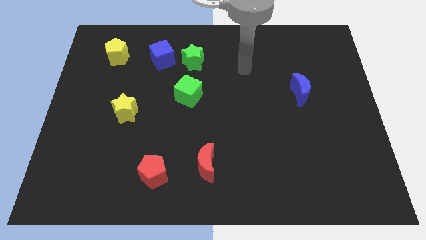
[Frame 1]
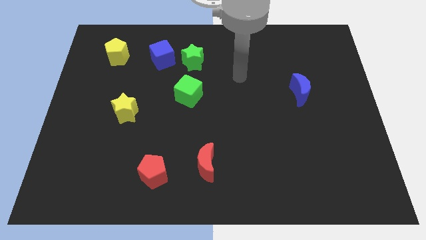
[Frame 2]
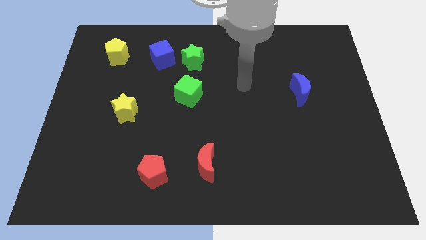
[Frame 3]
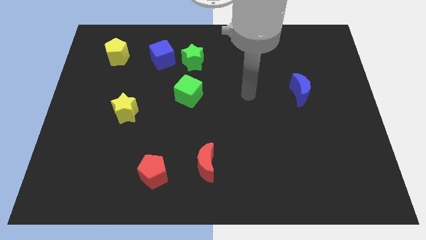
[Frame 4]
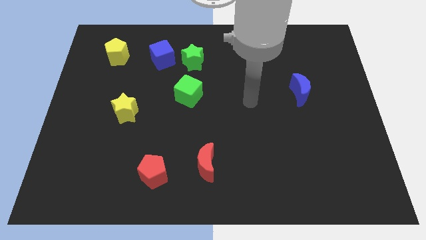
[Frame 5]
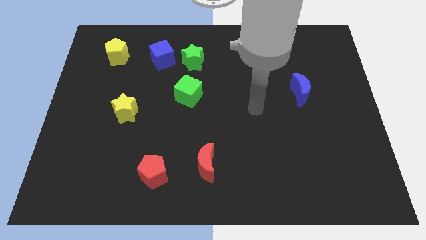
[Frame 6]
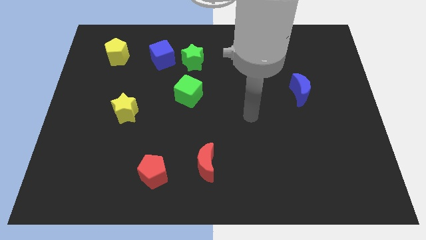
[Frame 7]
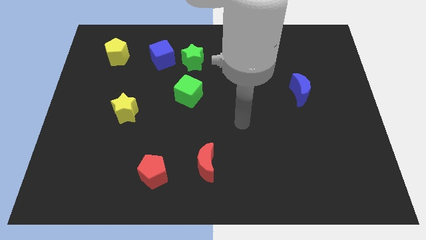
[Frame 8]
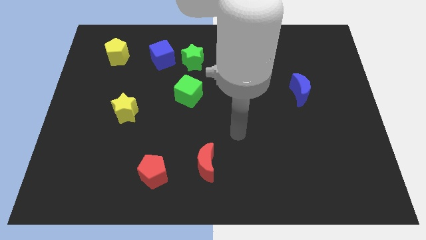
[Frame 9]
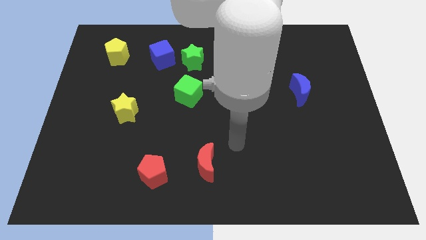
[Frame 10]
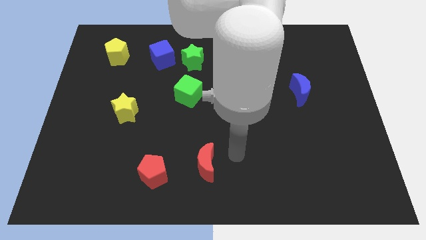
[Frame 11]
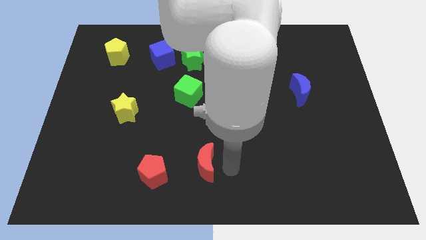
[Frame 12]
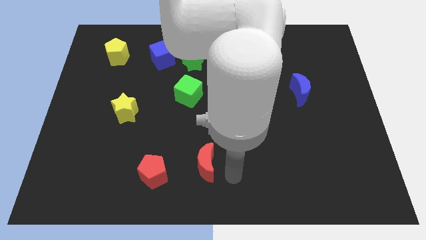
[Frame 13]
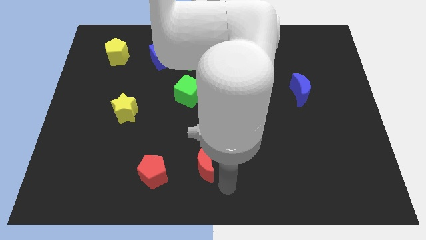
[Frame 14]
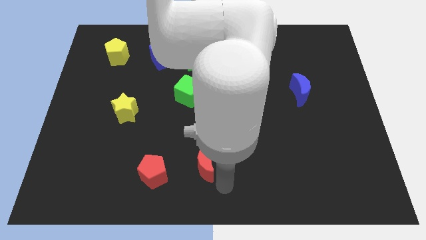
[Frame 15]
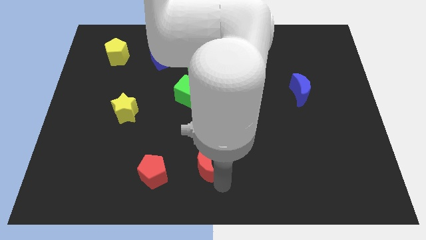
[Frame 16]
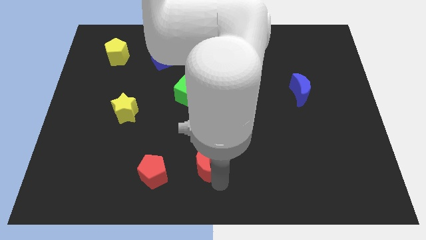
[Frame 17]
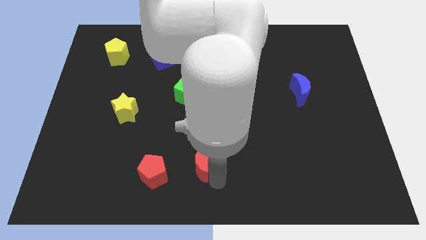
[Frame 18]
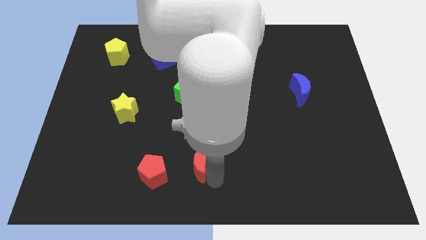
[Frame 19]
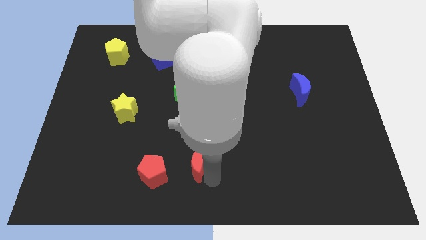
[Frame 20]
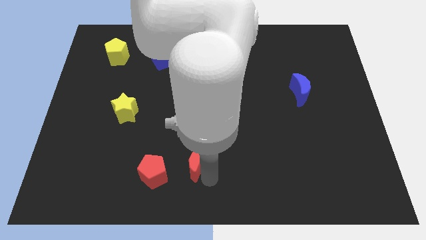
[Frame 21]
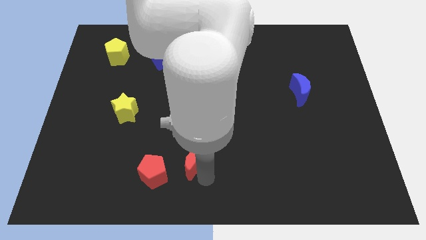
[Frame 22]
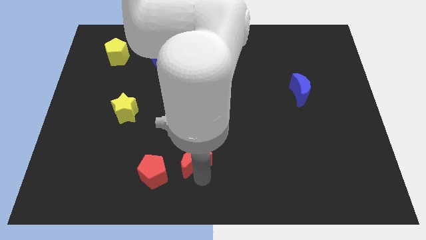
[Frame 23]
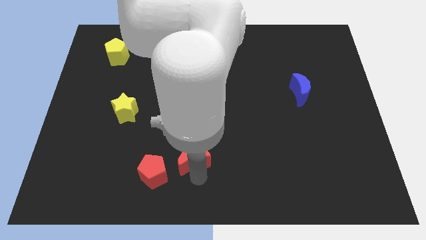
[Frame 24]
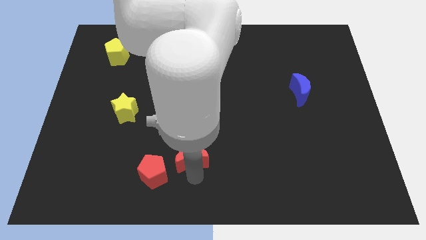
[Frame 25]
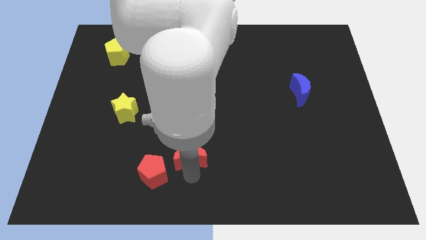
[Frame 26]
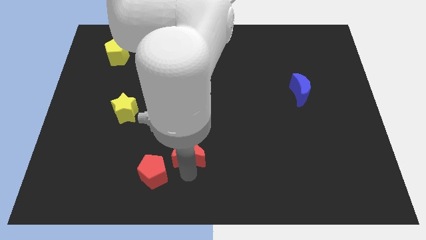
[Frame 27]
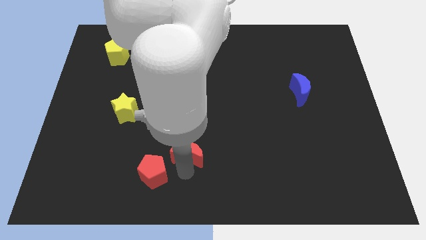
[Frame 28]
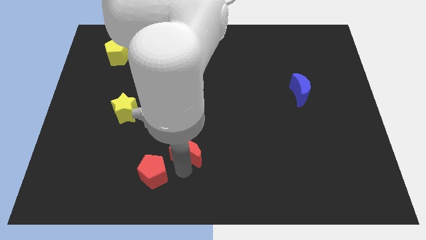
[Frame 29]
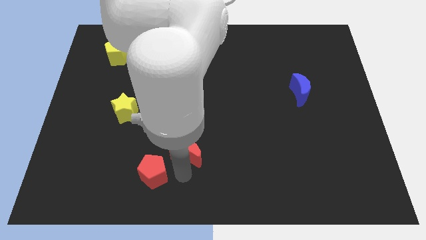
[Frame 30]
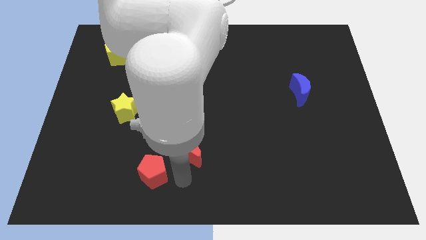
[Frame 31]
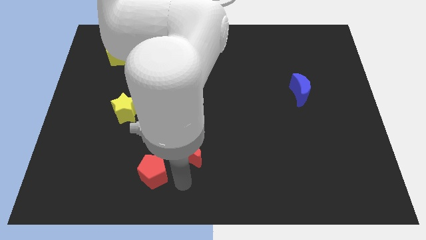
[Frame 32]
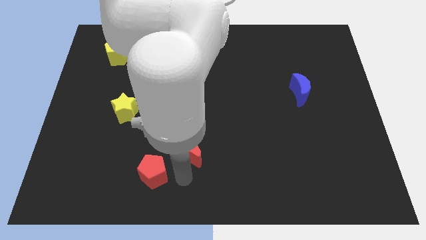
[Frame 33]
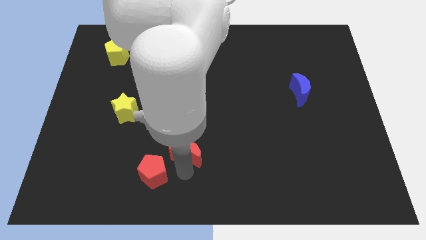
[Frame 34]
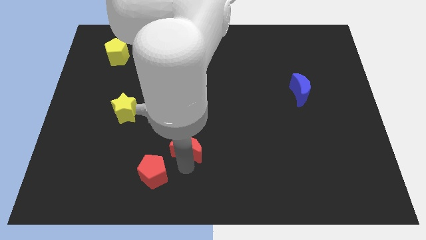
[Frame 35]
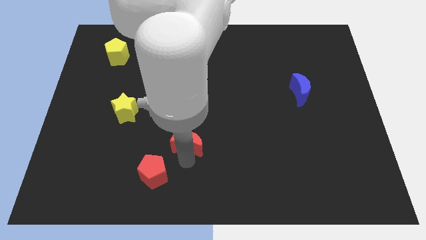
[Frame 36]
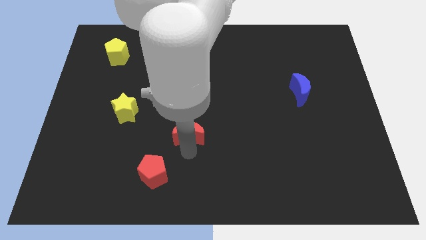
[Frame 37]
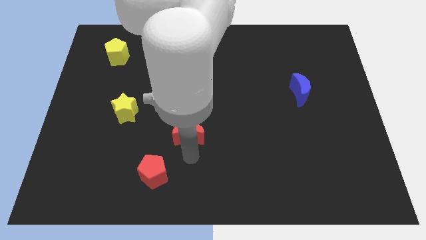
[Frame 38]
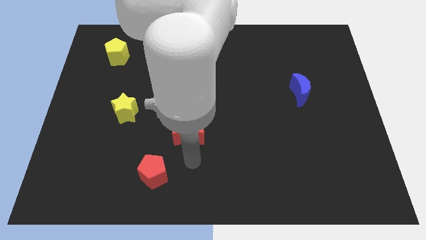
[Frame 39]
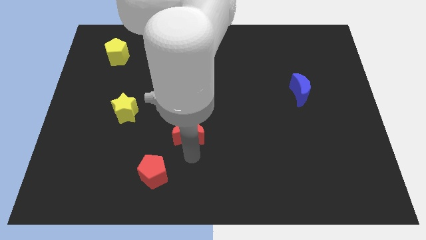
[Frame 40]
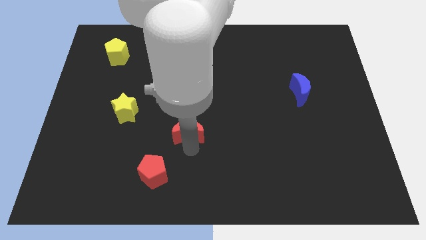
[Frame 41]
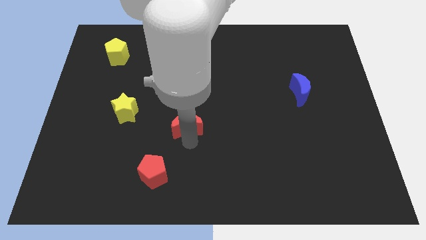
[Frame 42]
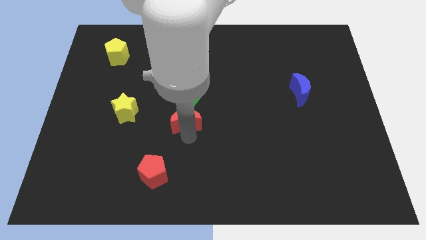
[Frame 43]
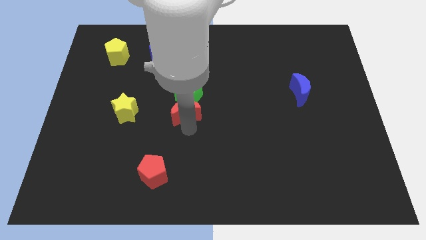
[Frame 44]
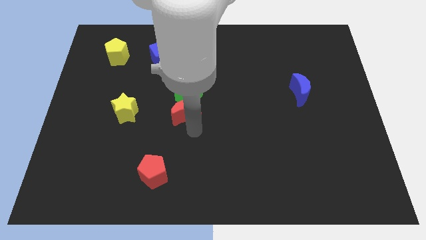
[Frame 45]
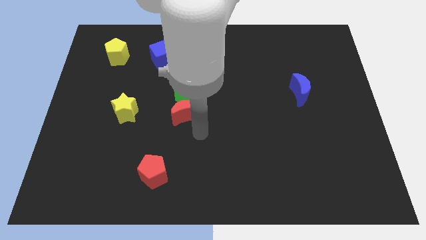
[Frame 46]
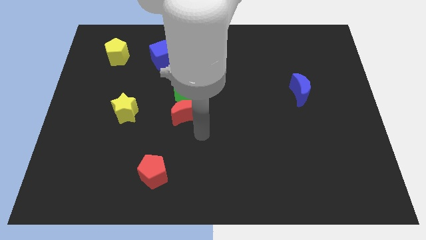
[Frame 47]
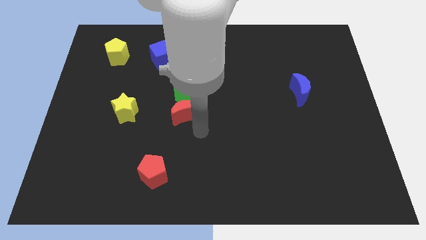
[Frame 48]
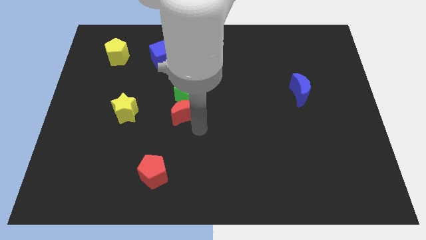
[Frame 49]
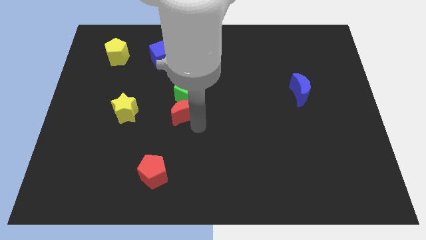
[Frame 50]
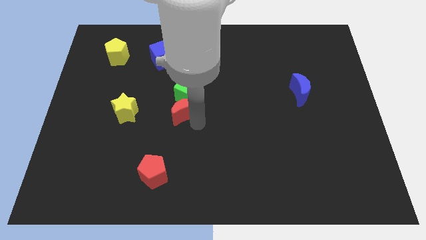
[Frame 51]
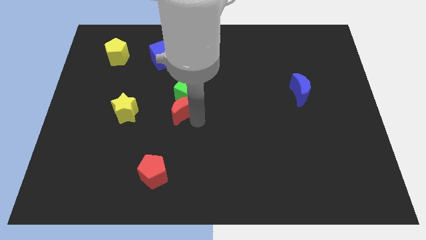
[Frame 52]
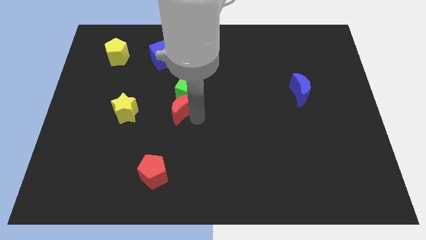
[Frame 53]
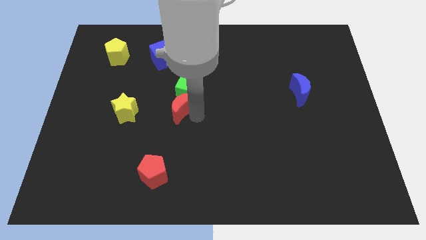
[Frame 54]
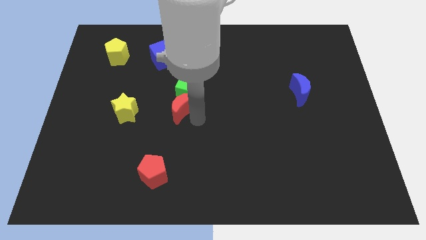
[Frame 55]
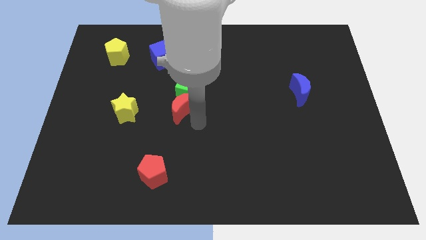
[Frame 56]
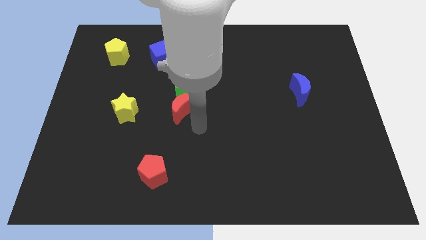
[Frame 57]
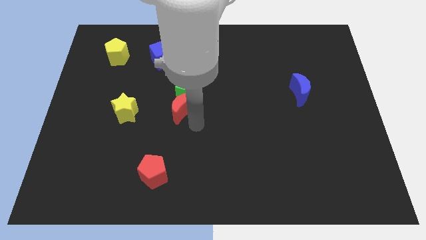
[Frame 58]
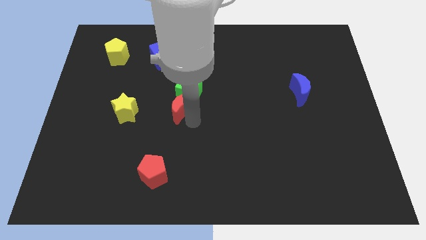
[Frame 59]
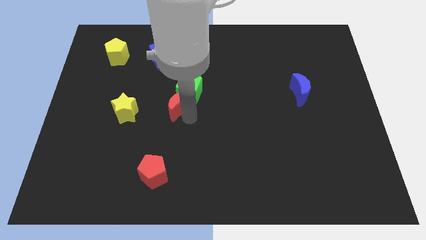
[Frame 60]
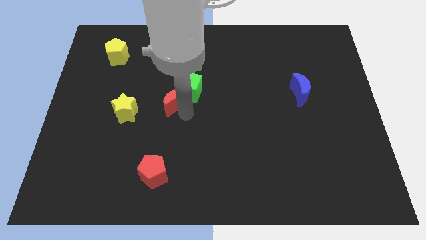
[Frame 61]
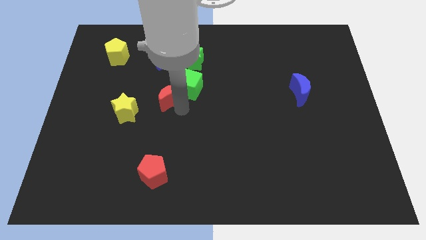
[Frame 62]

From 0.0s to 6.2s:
slide the red moon below the blue cube

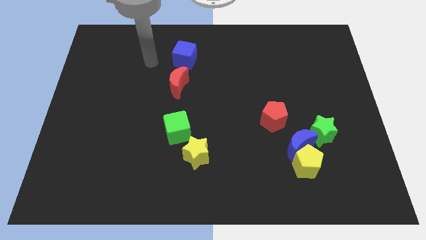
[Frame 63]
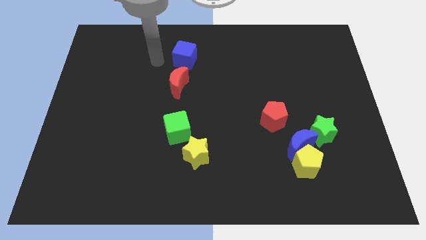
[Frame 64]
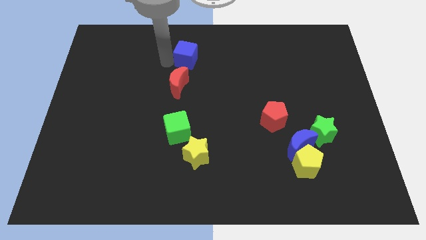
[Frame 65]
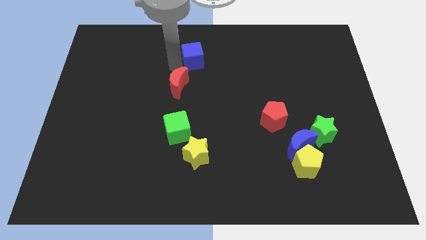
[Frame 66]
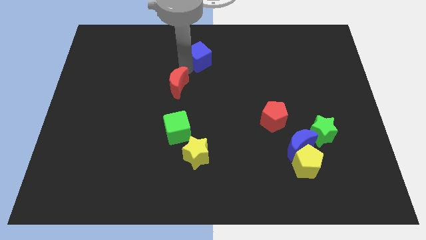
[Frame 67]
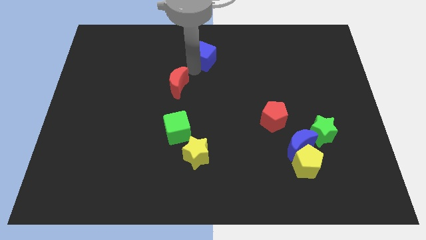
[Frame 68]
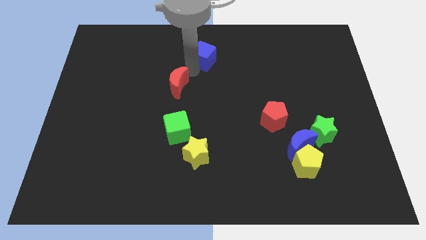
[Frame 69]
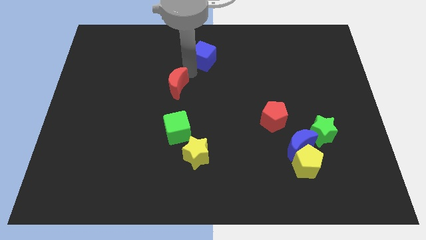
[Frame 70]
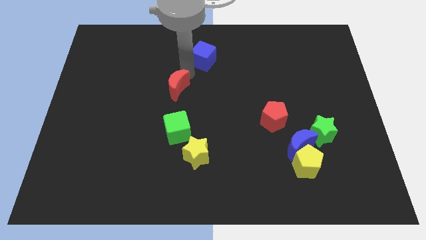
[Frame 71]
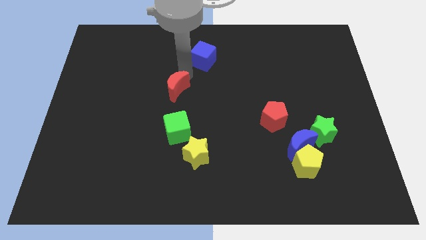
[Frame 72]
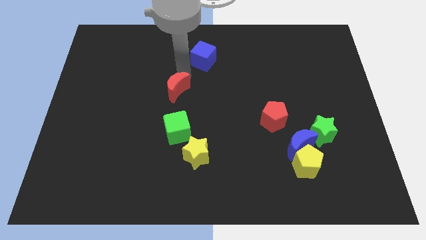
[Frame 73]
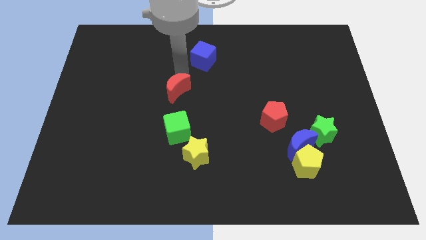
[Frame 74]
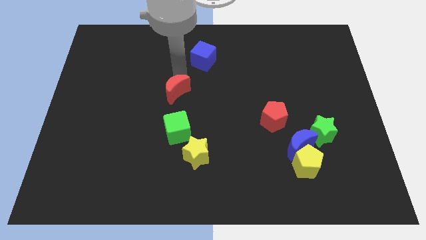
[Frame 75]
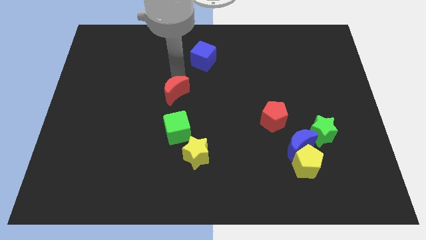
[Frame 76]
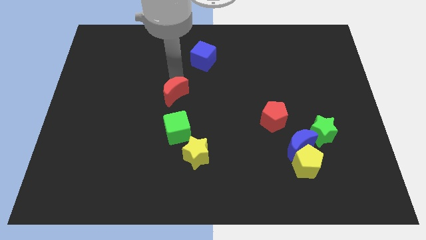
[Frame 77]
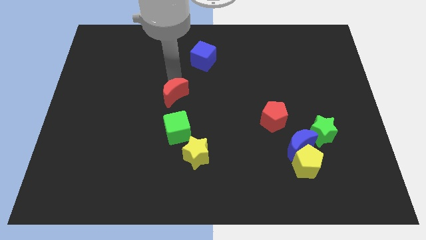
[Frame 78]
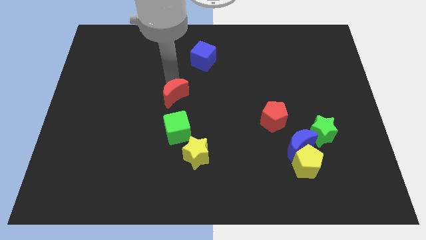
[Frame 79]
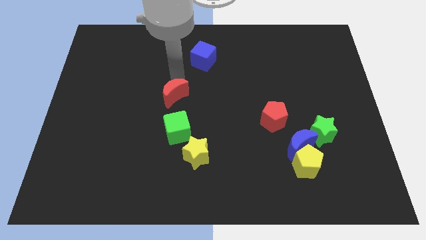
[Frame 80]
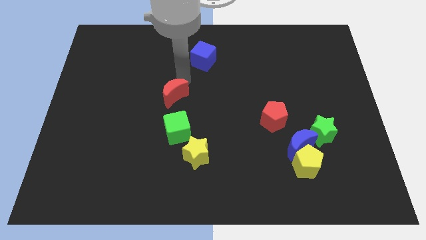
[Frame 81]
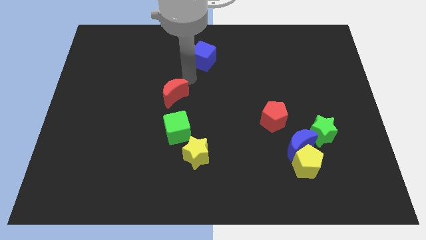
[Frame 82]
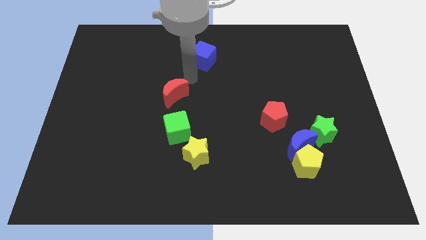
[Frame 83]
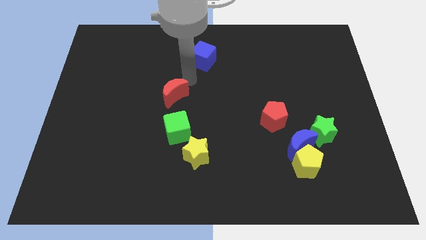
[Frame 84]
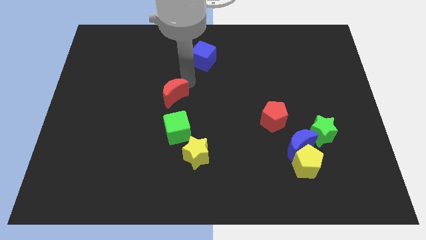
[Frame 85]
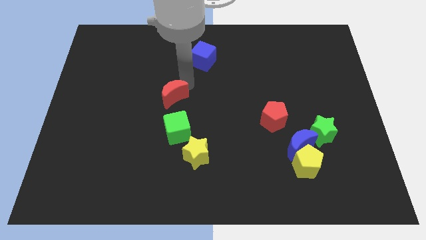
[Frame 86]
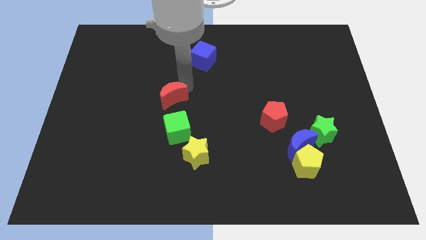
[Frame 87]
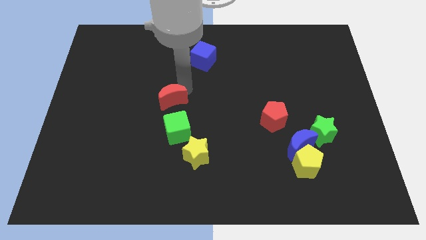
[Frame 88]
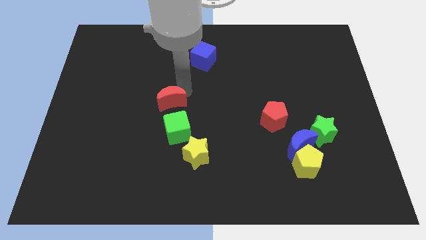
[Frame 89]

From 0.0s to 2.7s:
slide the red moon to the top left side of the green cube
